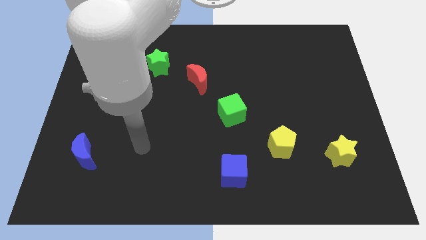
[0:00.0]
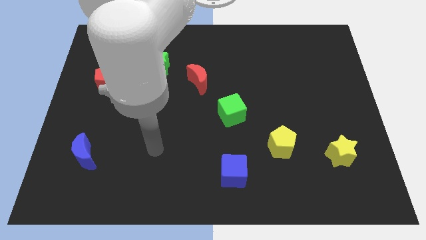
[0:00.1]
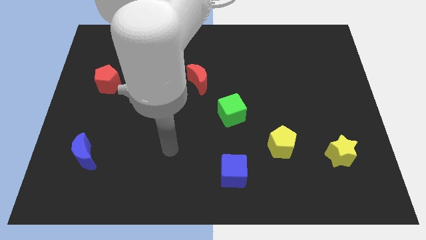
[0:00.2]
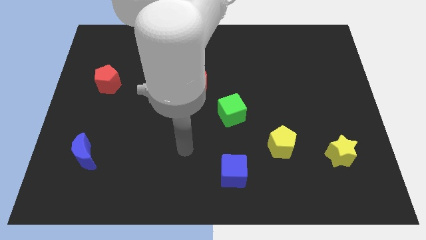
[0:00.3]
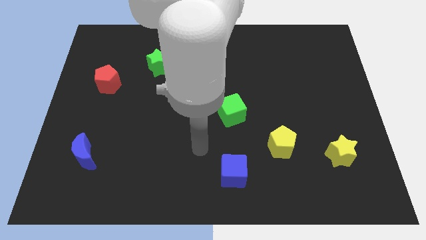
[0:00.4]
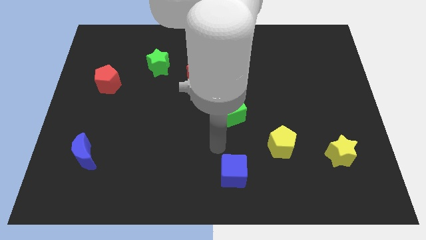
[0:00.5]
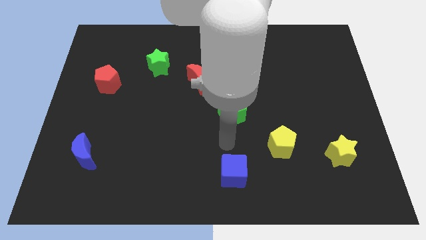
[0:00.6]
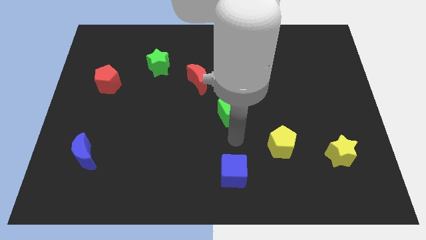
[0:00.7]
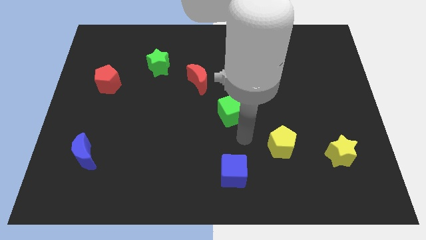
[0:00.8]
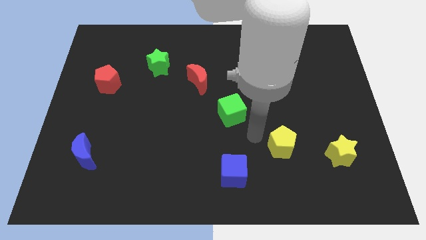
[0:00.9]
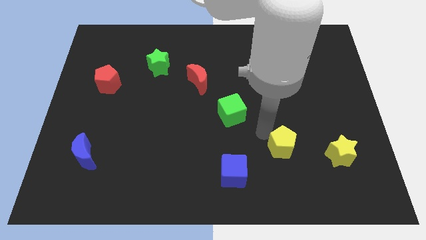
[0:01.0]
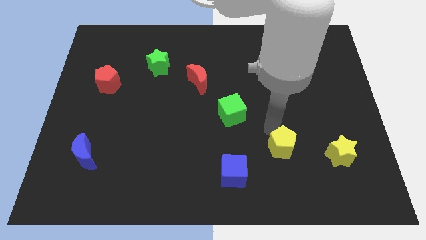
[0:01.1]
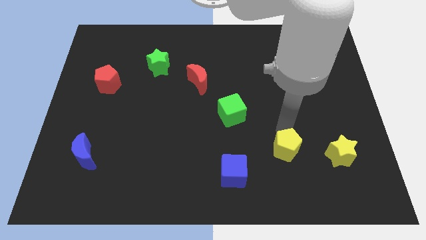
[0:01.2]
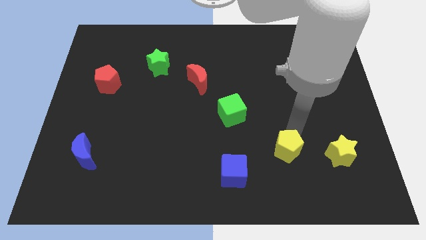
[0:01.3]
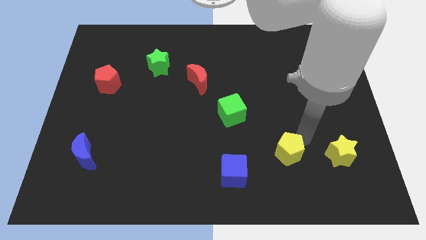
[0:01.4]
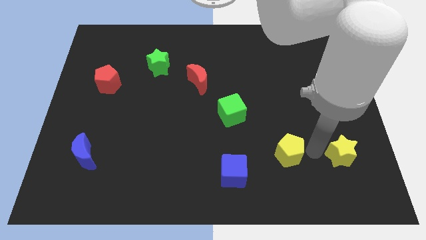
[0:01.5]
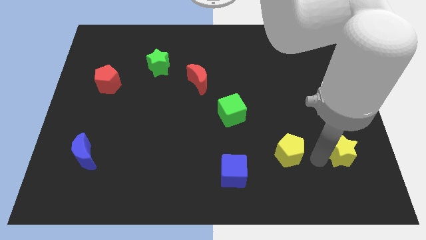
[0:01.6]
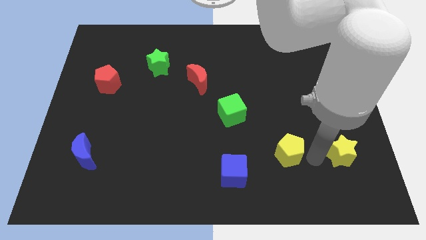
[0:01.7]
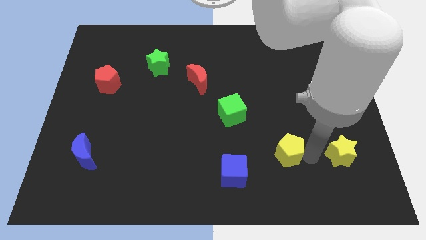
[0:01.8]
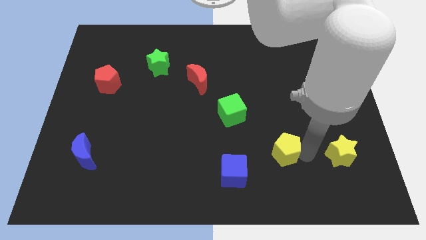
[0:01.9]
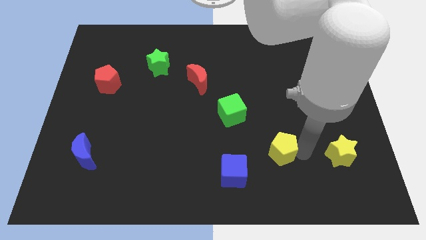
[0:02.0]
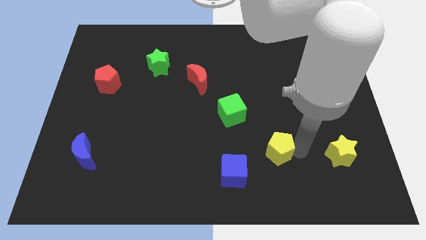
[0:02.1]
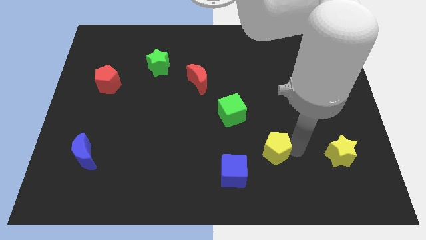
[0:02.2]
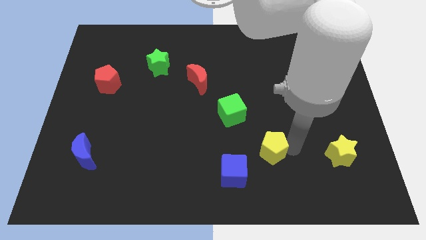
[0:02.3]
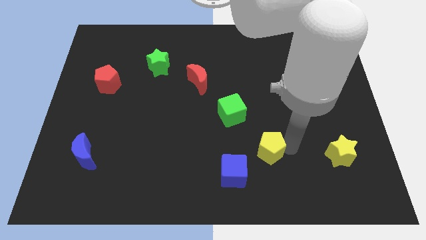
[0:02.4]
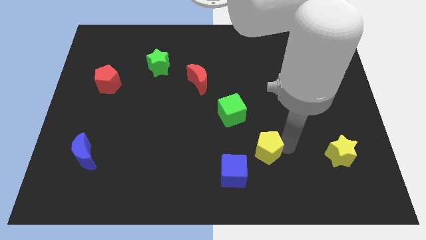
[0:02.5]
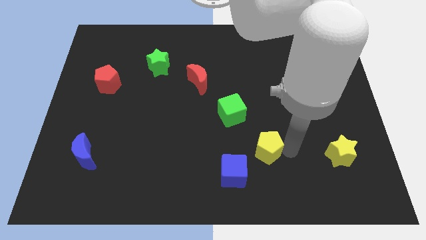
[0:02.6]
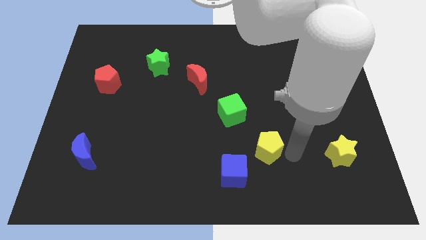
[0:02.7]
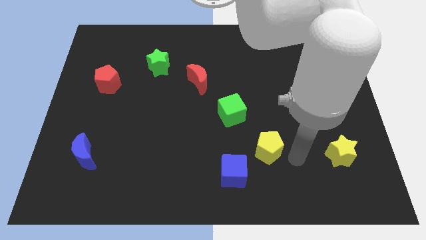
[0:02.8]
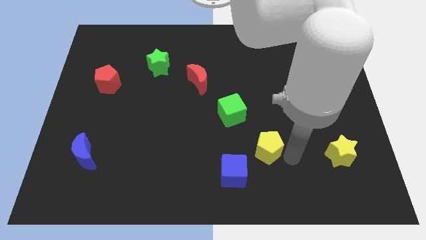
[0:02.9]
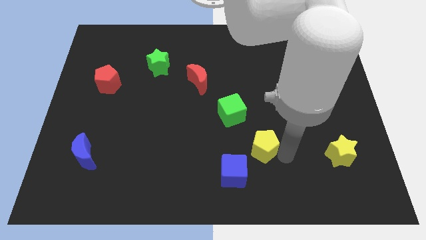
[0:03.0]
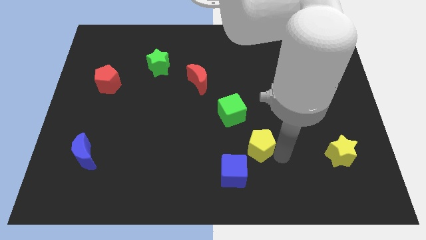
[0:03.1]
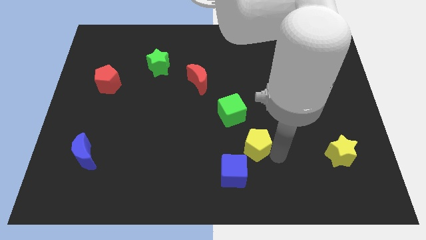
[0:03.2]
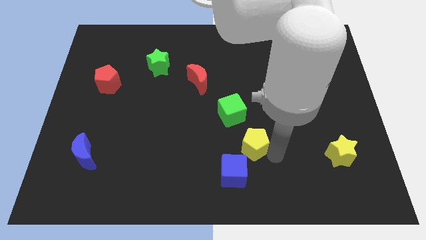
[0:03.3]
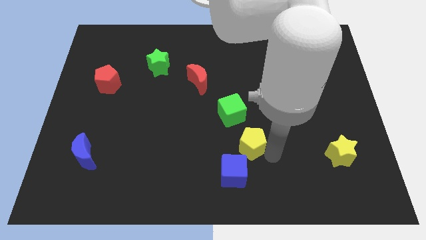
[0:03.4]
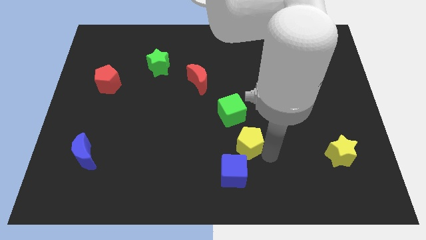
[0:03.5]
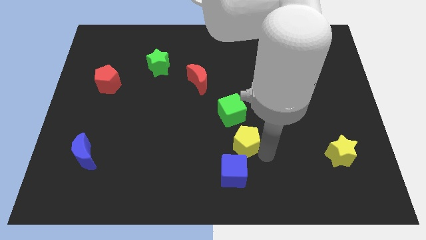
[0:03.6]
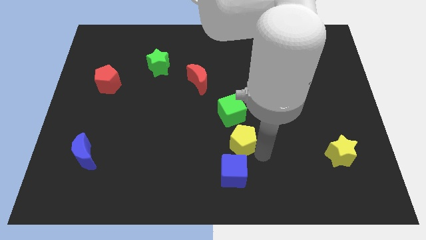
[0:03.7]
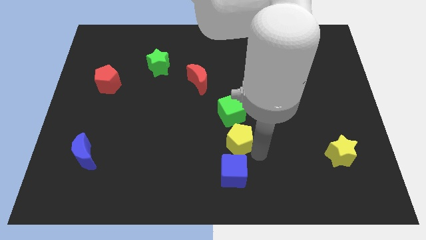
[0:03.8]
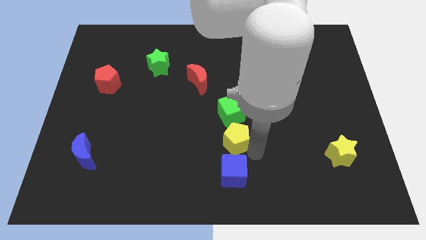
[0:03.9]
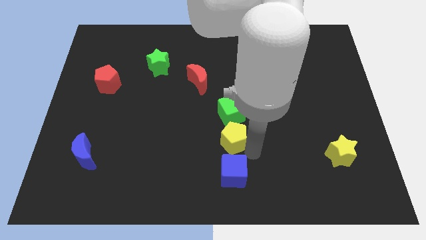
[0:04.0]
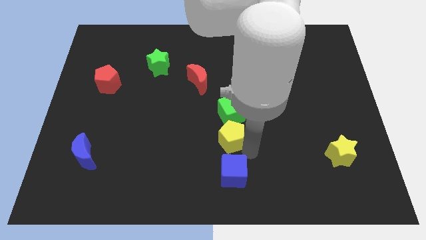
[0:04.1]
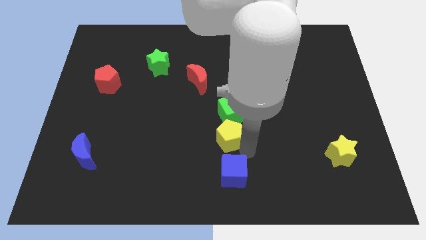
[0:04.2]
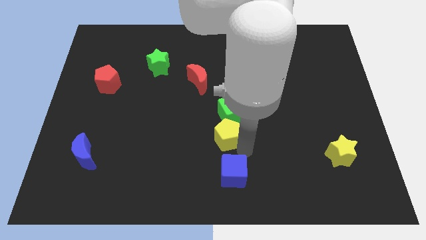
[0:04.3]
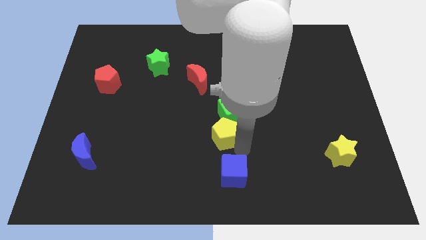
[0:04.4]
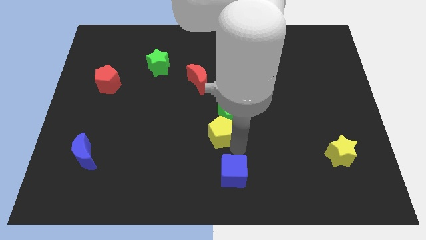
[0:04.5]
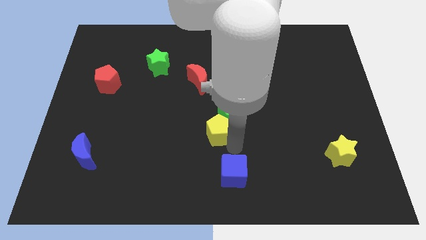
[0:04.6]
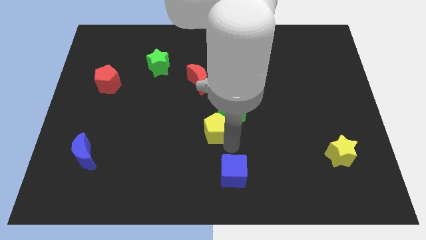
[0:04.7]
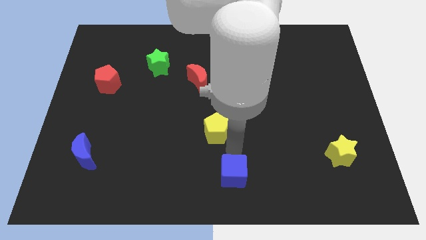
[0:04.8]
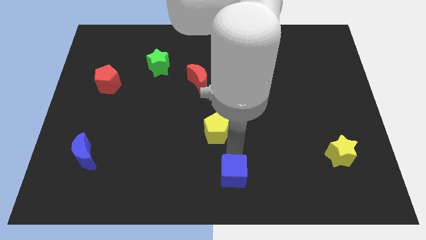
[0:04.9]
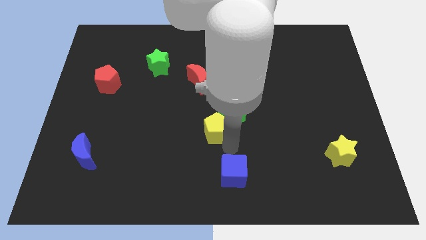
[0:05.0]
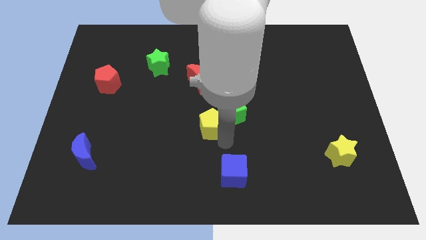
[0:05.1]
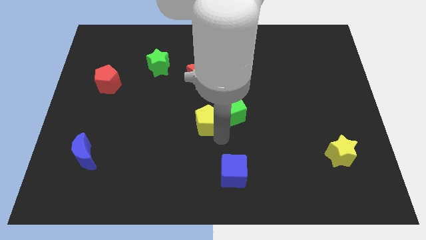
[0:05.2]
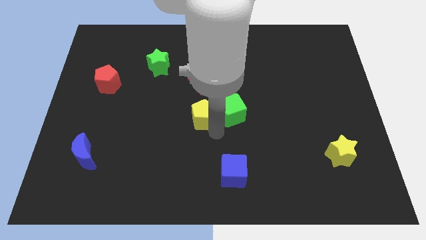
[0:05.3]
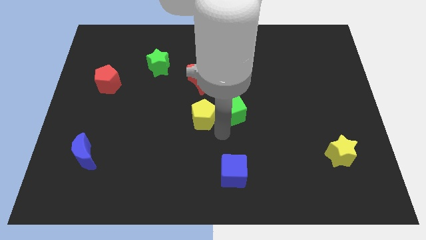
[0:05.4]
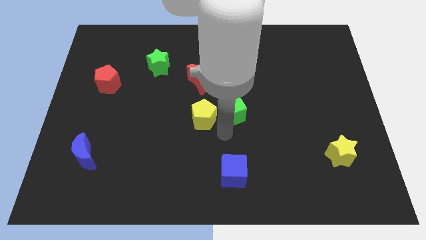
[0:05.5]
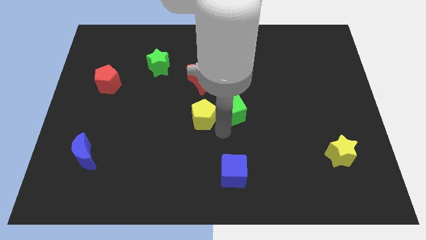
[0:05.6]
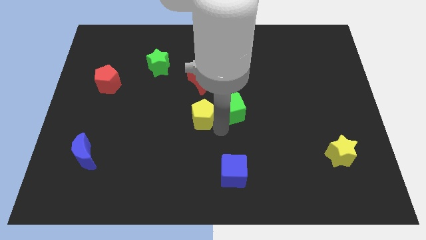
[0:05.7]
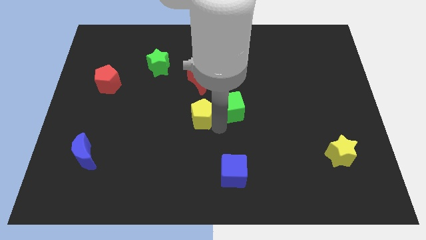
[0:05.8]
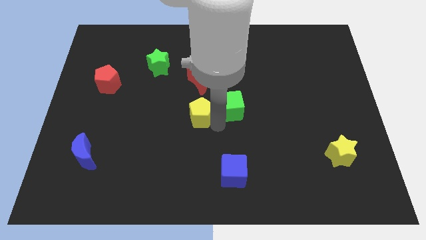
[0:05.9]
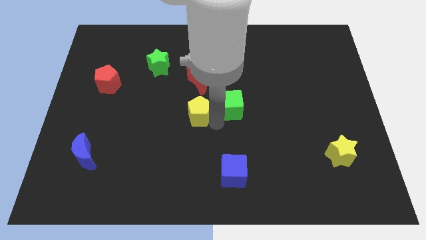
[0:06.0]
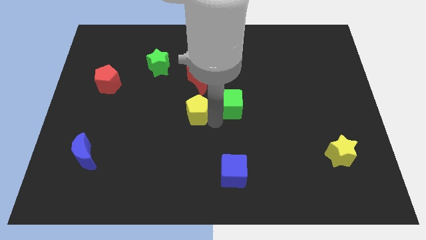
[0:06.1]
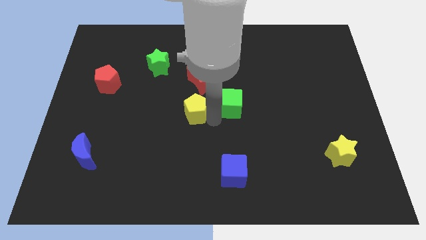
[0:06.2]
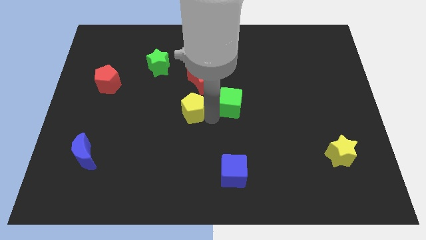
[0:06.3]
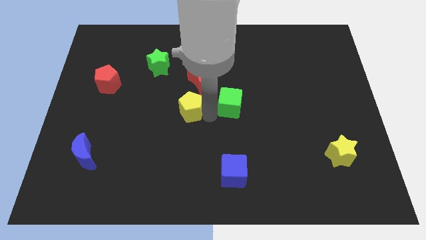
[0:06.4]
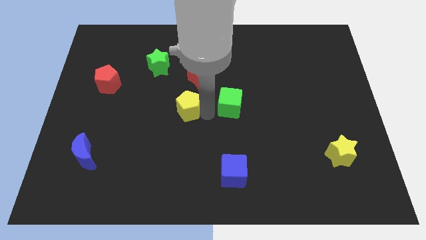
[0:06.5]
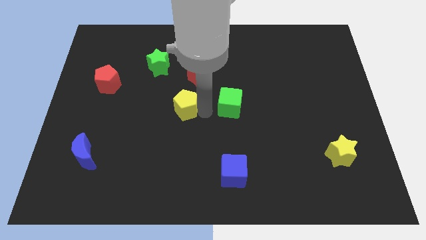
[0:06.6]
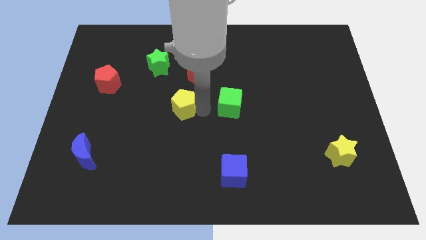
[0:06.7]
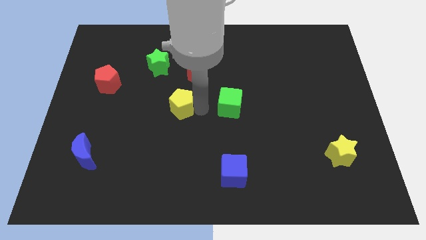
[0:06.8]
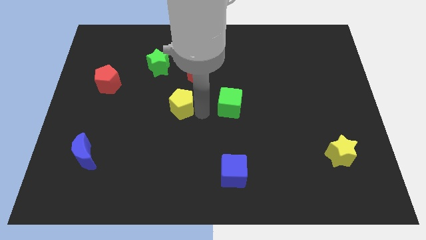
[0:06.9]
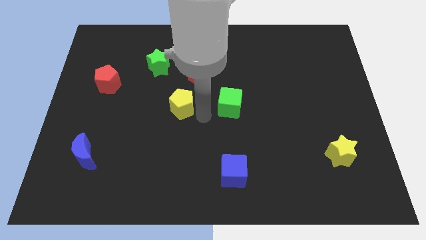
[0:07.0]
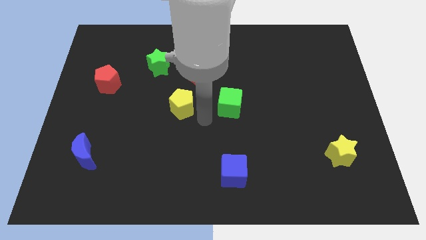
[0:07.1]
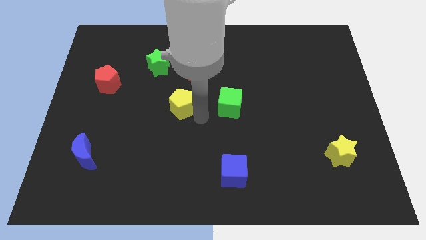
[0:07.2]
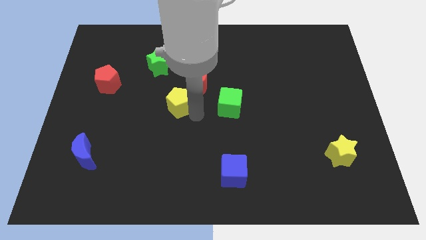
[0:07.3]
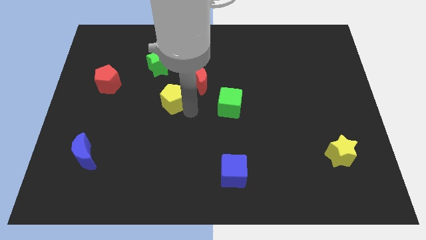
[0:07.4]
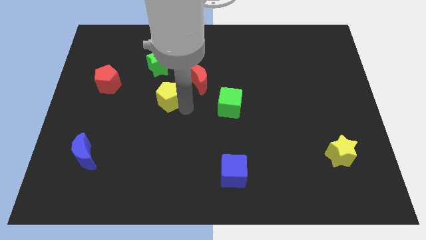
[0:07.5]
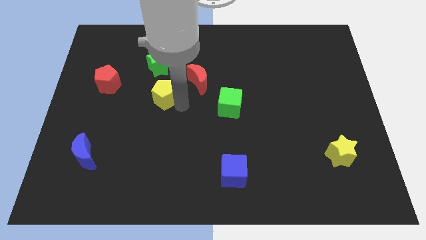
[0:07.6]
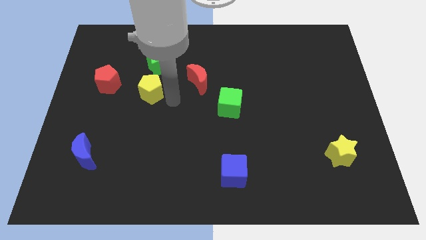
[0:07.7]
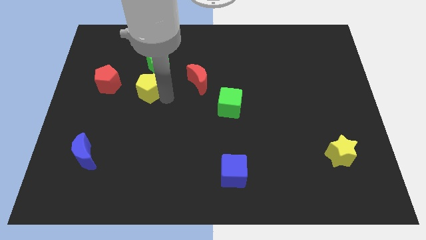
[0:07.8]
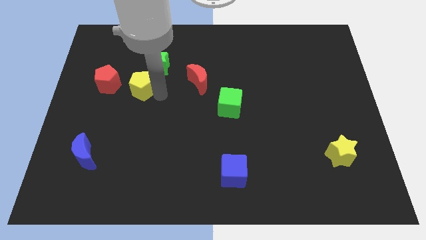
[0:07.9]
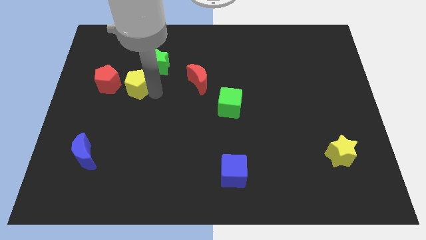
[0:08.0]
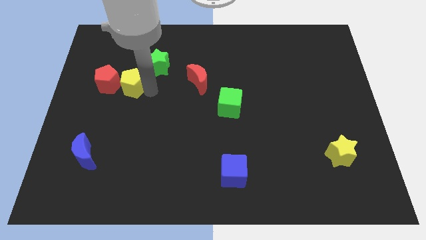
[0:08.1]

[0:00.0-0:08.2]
push the yellow pentagon towards the red pentagon
